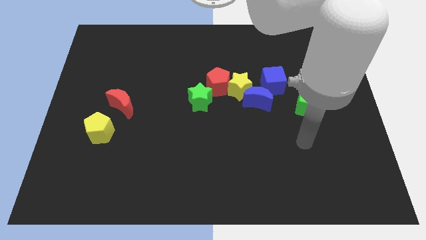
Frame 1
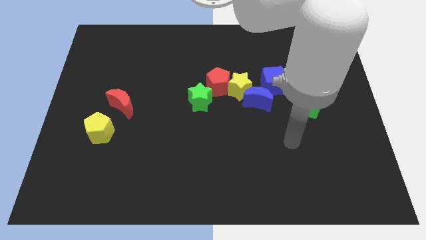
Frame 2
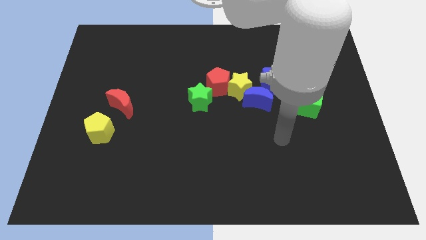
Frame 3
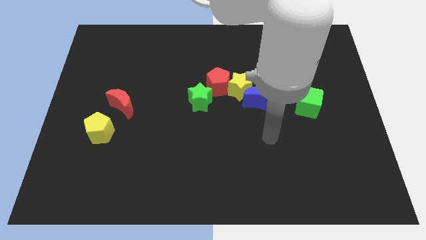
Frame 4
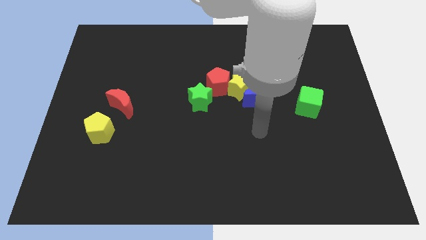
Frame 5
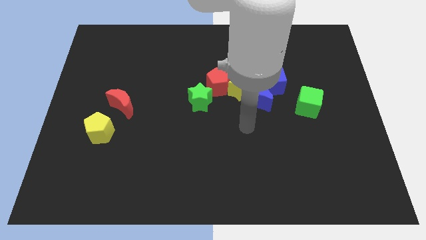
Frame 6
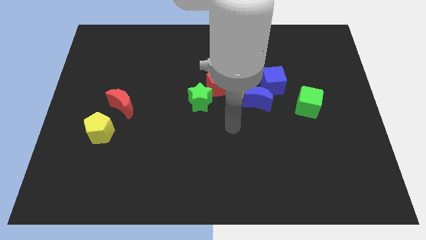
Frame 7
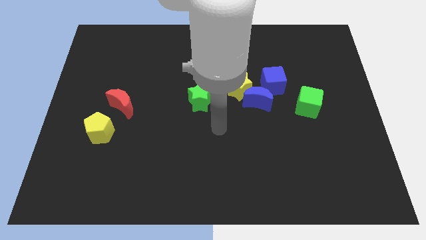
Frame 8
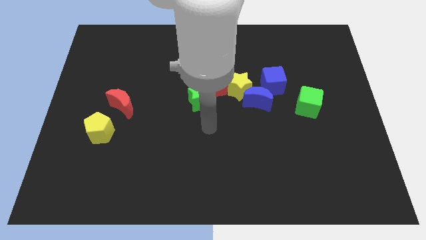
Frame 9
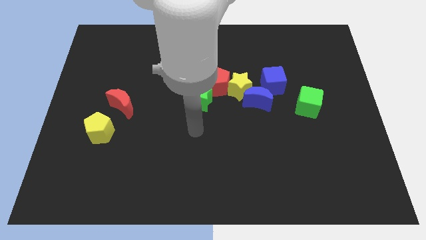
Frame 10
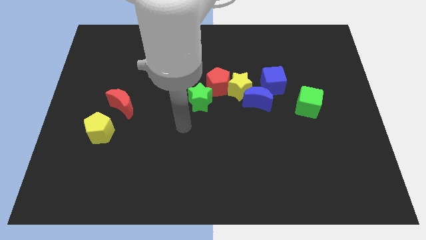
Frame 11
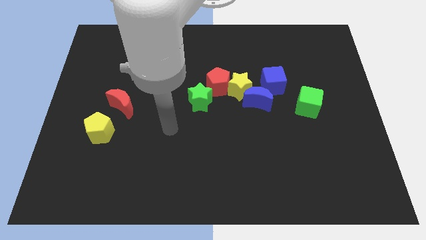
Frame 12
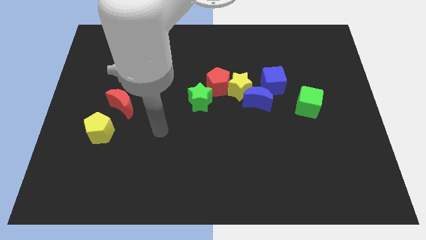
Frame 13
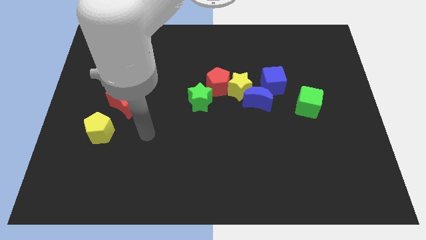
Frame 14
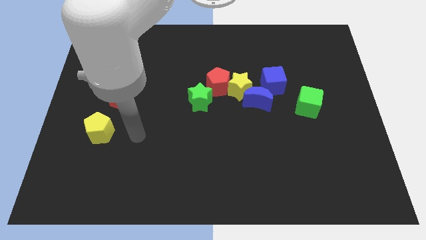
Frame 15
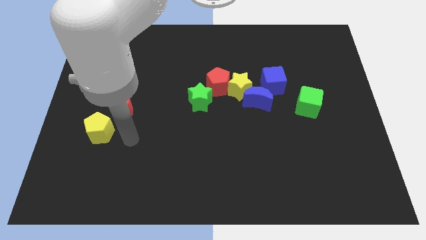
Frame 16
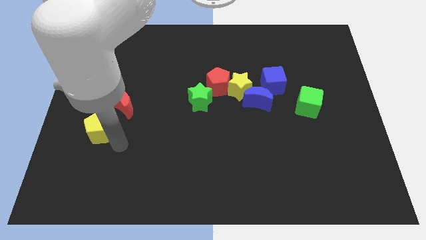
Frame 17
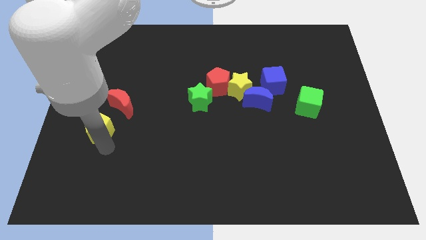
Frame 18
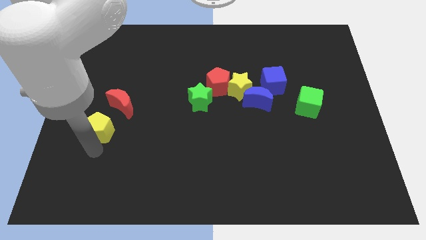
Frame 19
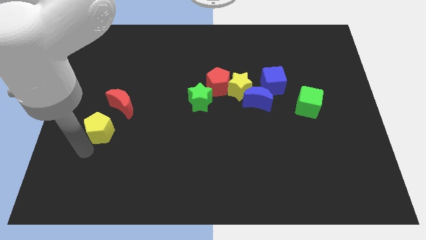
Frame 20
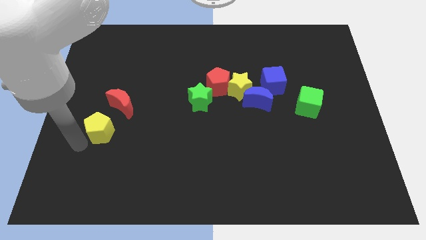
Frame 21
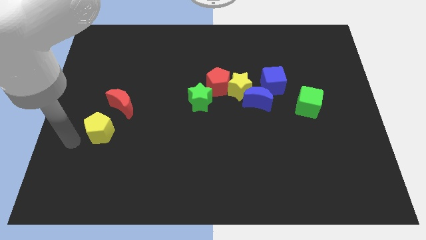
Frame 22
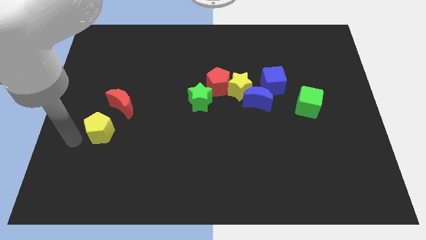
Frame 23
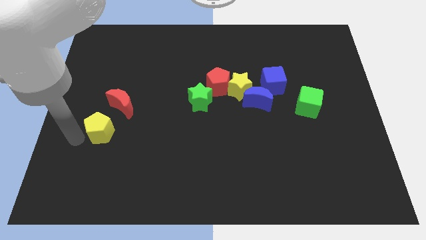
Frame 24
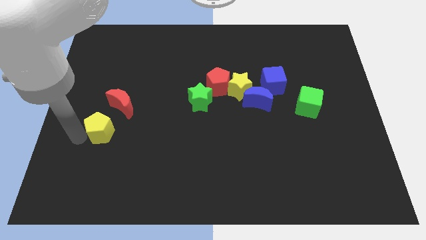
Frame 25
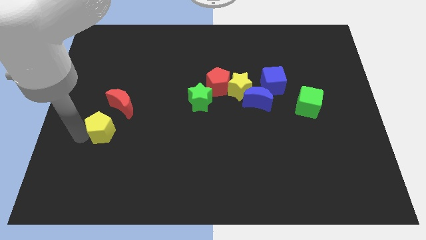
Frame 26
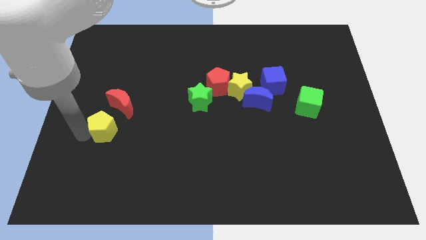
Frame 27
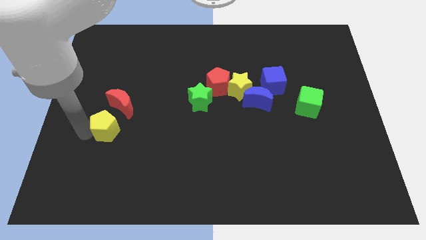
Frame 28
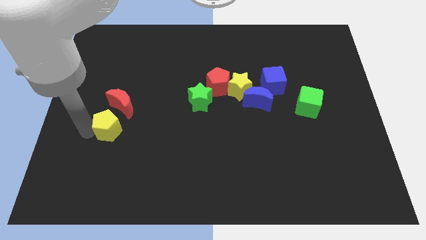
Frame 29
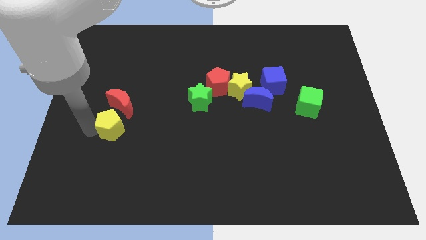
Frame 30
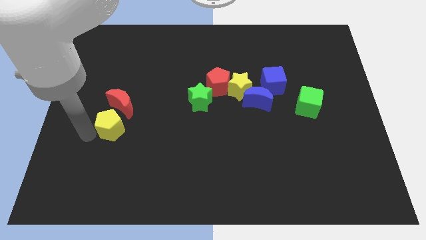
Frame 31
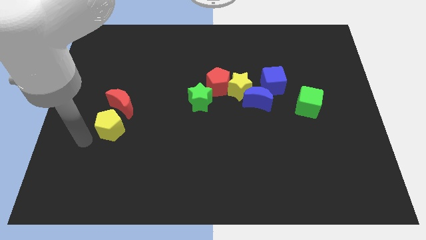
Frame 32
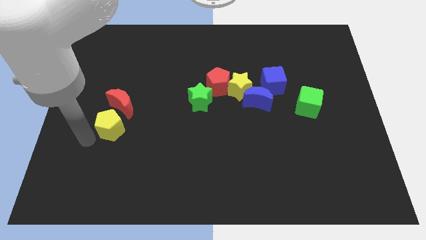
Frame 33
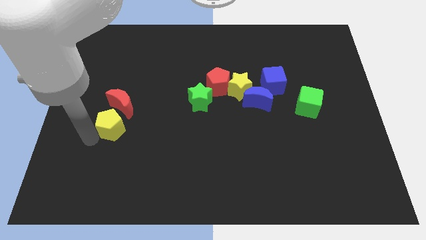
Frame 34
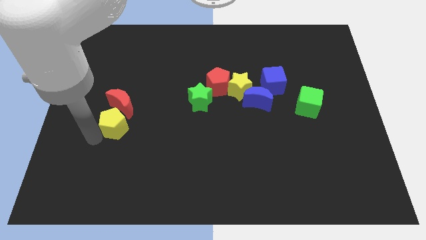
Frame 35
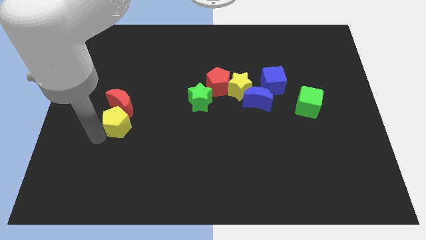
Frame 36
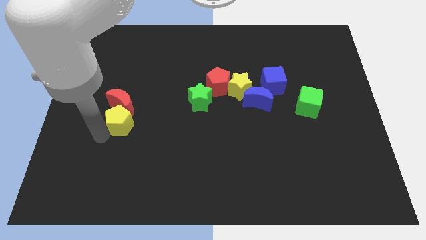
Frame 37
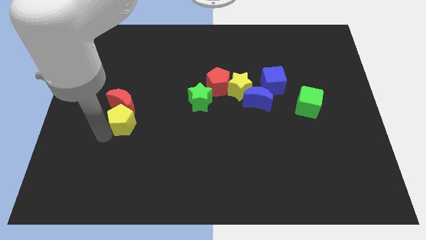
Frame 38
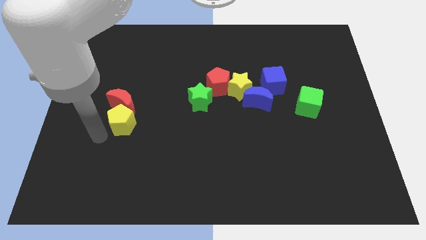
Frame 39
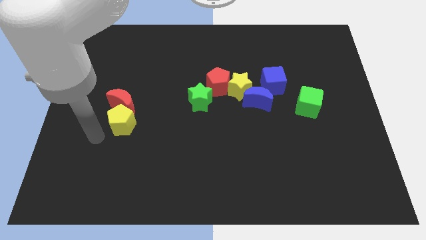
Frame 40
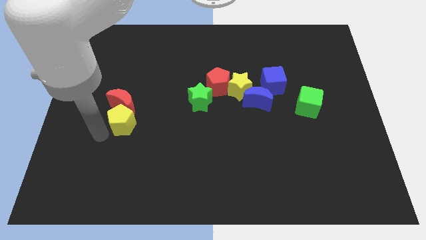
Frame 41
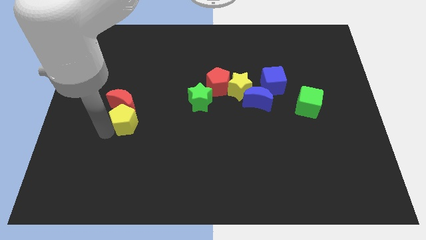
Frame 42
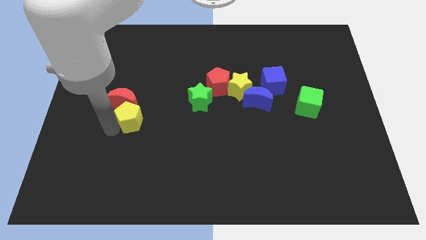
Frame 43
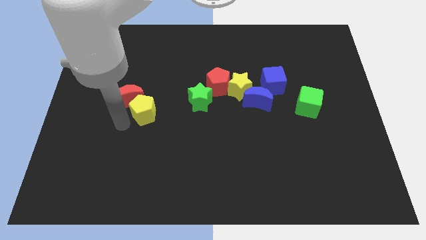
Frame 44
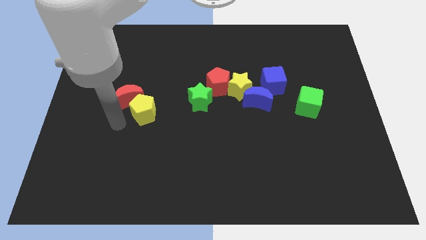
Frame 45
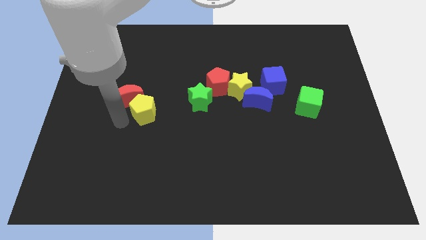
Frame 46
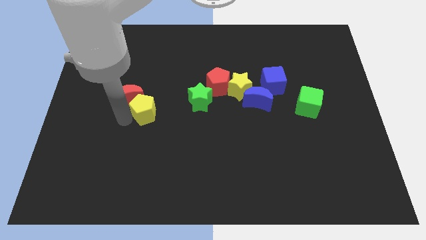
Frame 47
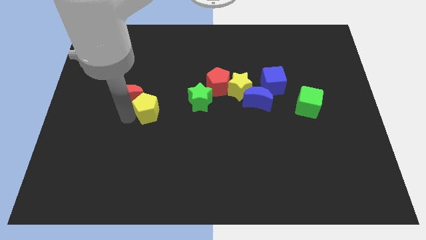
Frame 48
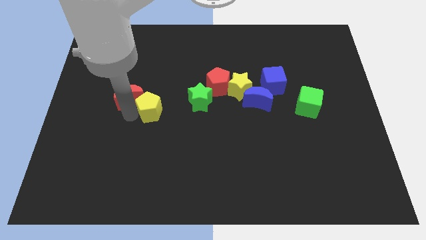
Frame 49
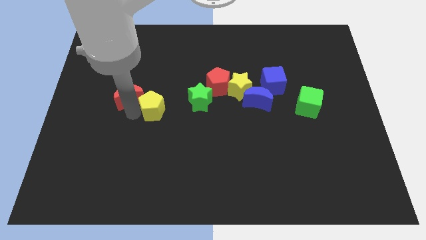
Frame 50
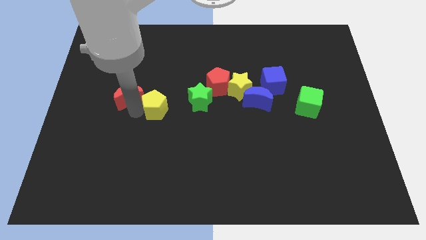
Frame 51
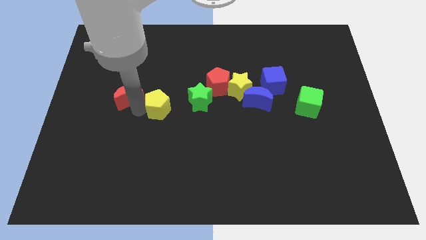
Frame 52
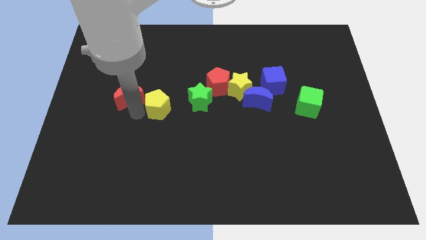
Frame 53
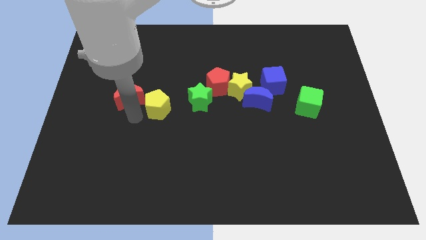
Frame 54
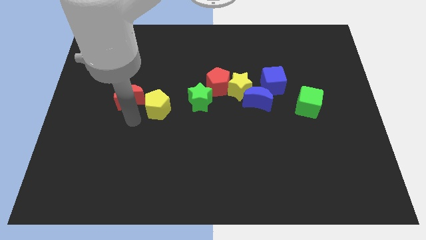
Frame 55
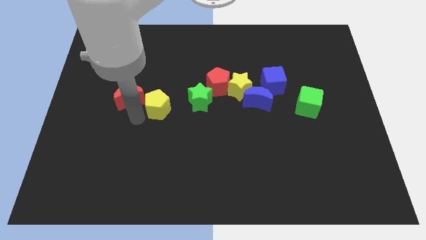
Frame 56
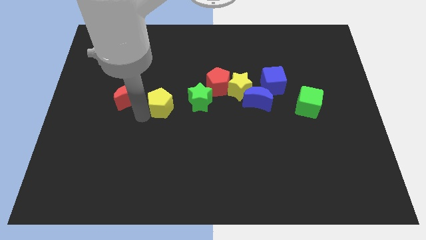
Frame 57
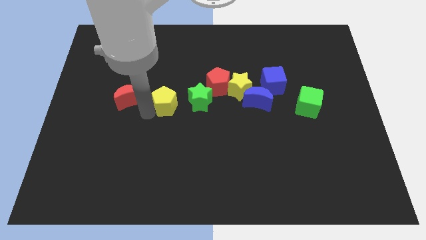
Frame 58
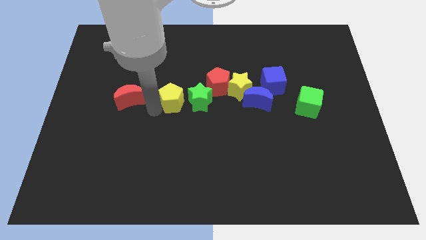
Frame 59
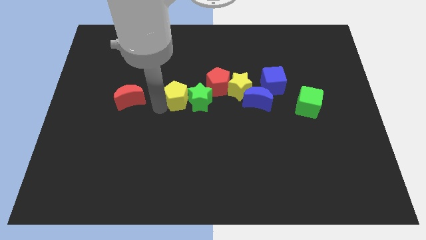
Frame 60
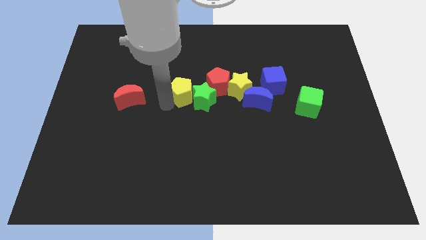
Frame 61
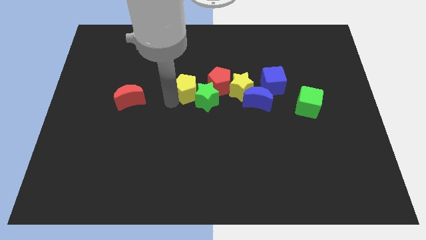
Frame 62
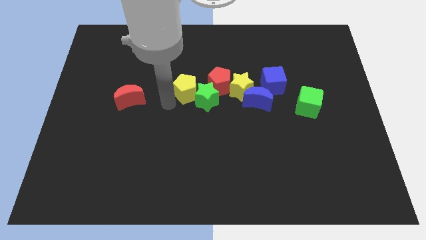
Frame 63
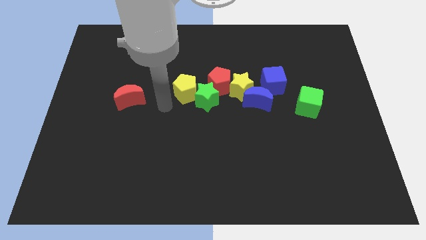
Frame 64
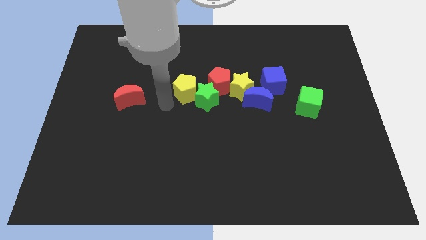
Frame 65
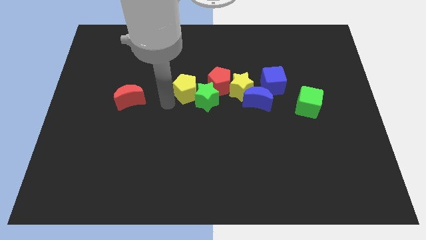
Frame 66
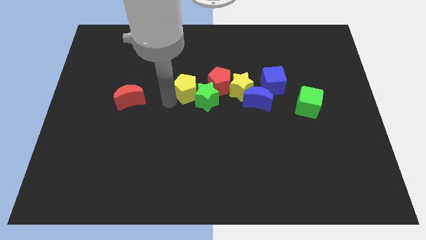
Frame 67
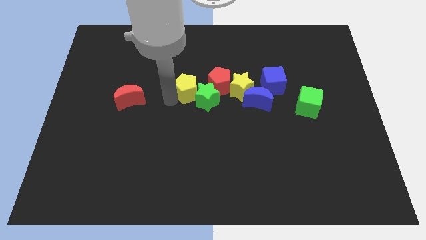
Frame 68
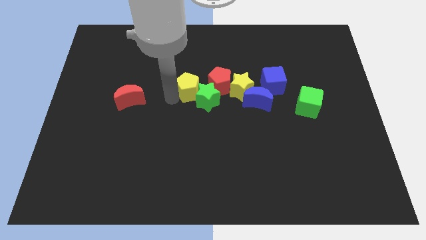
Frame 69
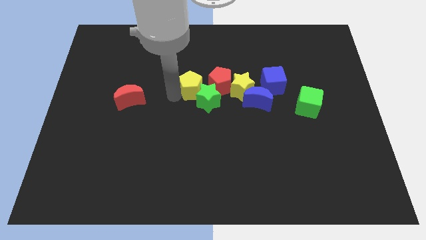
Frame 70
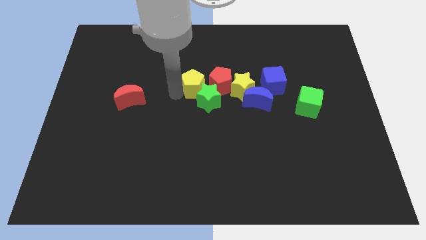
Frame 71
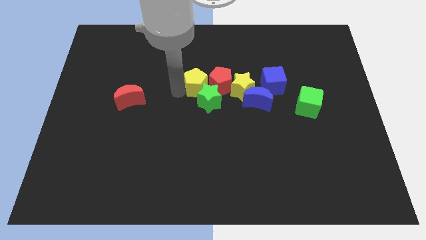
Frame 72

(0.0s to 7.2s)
push the yellow pentagon next to the red pentagon
